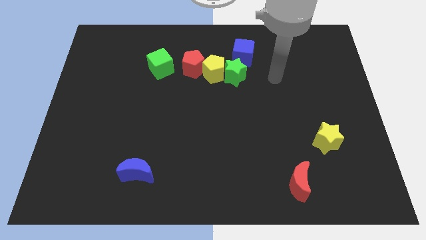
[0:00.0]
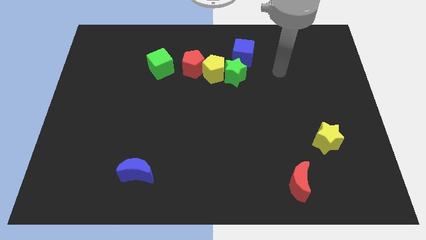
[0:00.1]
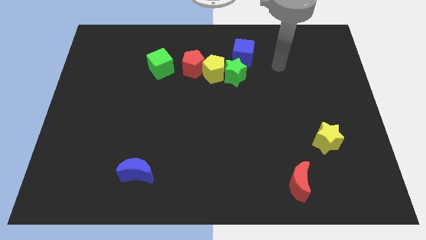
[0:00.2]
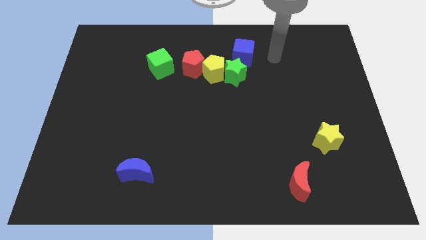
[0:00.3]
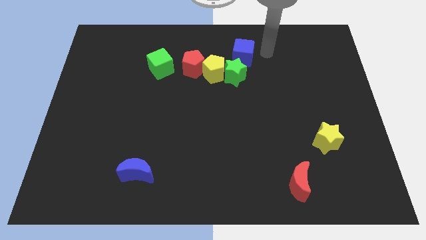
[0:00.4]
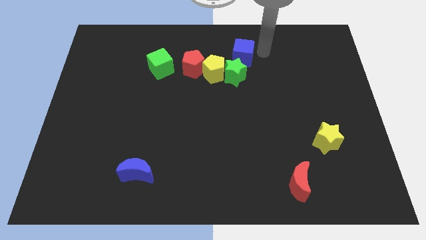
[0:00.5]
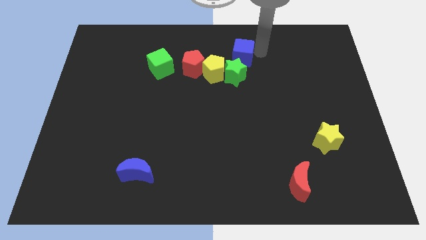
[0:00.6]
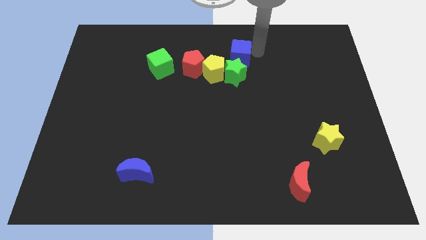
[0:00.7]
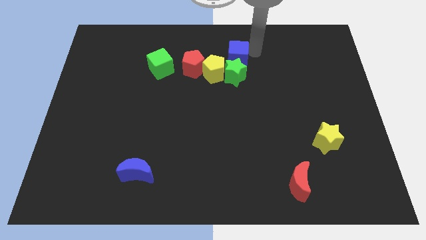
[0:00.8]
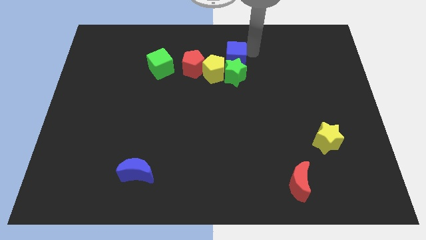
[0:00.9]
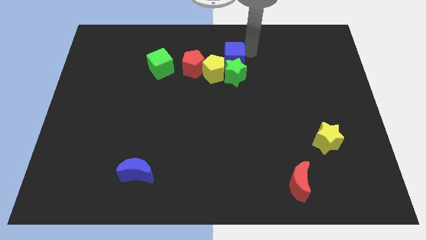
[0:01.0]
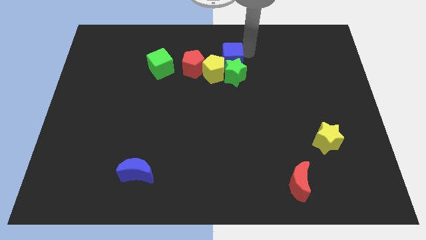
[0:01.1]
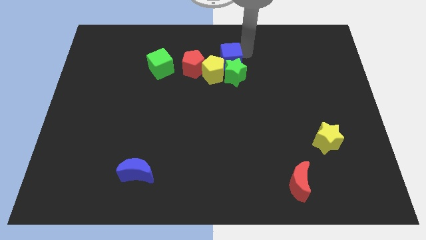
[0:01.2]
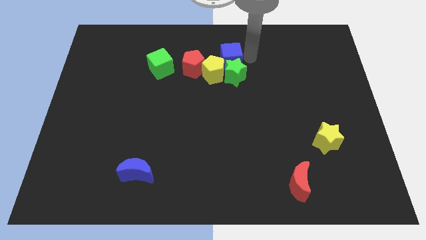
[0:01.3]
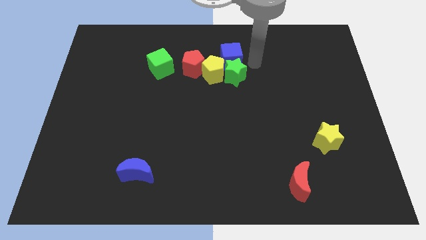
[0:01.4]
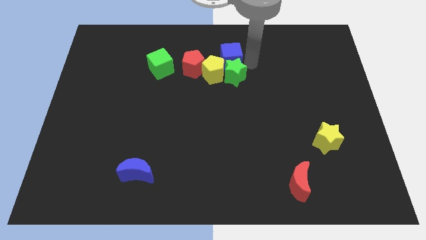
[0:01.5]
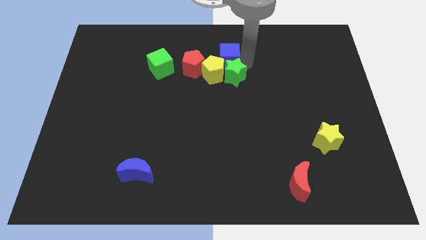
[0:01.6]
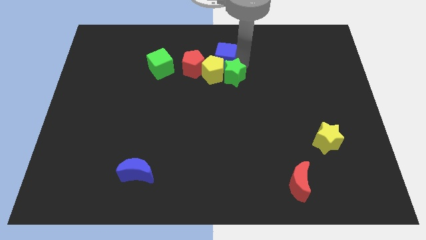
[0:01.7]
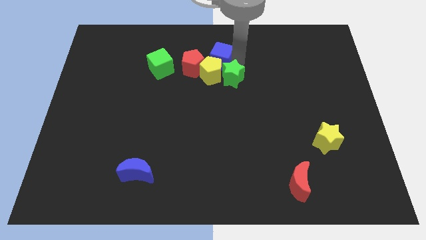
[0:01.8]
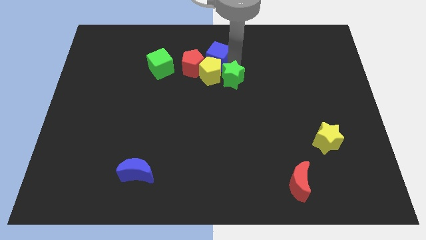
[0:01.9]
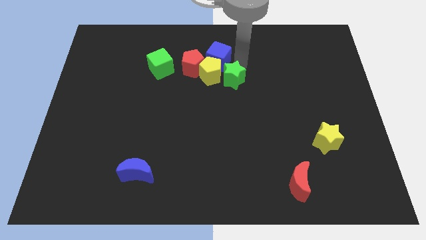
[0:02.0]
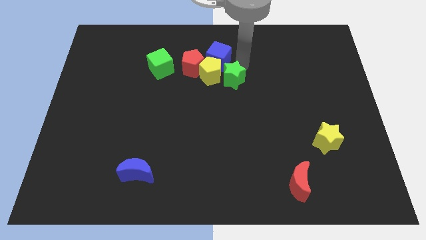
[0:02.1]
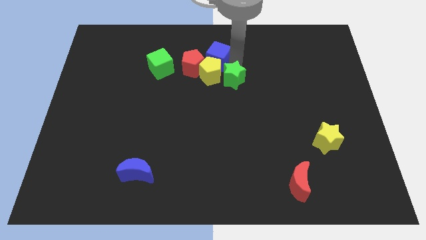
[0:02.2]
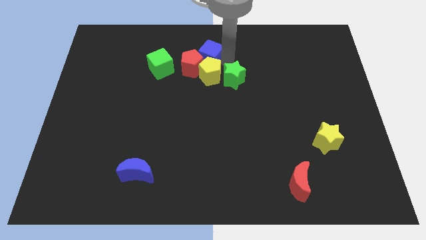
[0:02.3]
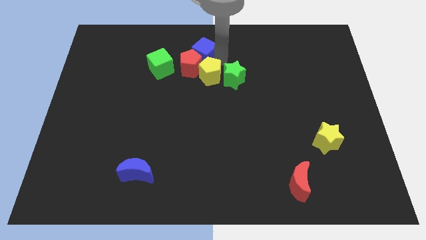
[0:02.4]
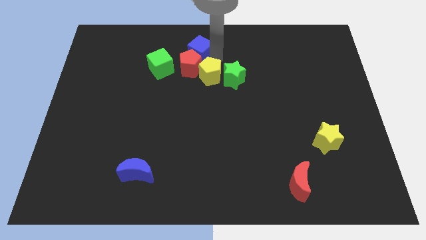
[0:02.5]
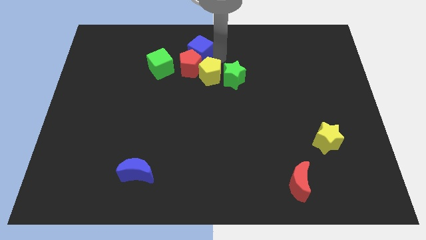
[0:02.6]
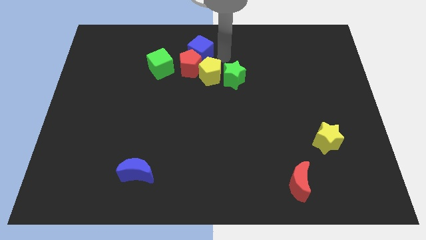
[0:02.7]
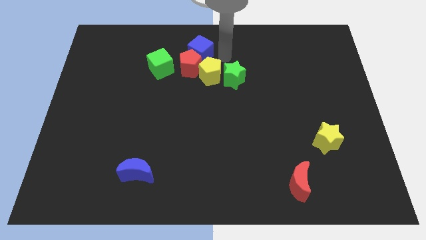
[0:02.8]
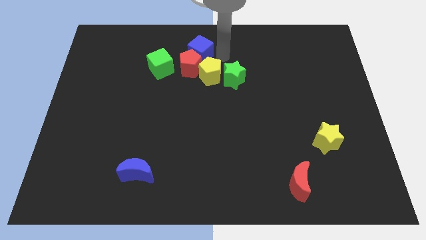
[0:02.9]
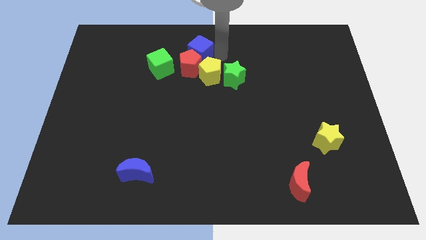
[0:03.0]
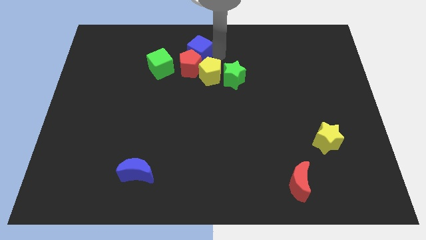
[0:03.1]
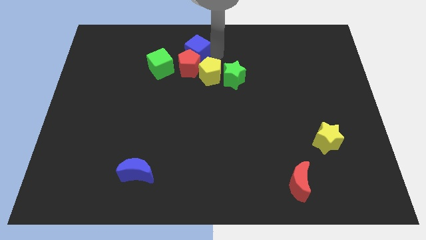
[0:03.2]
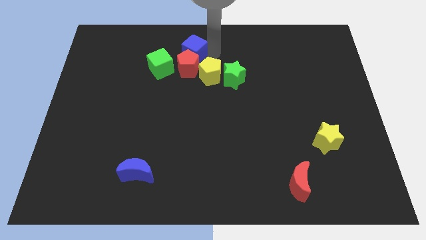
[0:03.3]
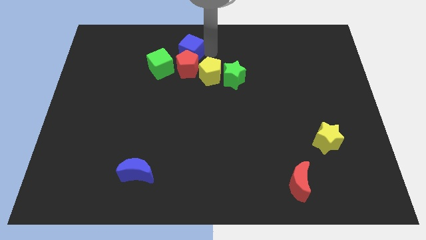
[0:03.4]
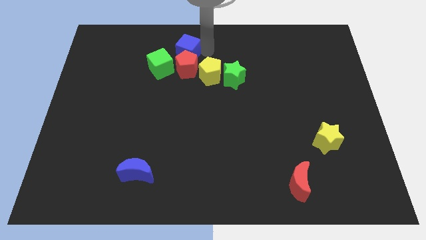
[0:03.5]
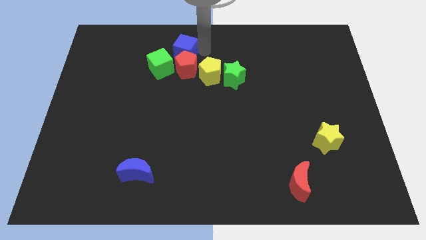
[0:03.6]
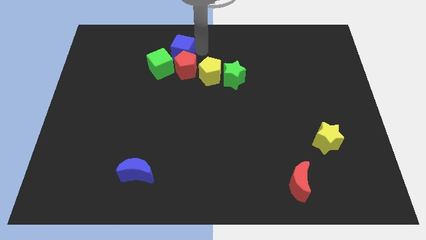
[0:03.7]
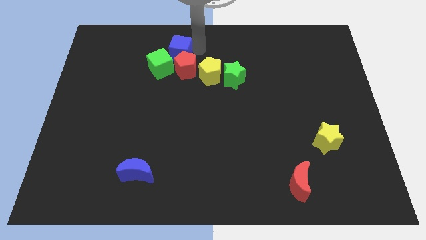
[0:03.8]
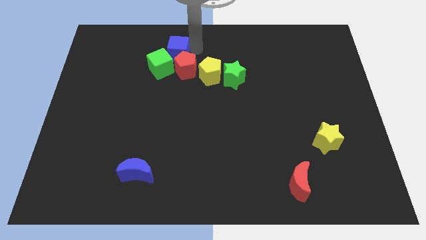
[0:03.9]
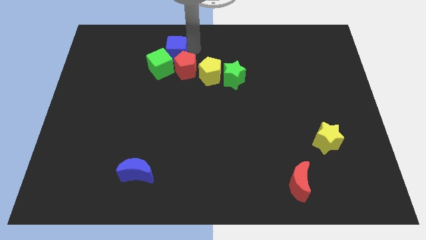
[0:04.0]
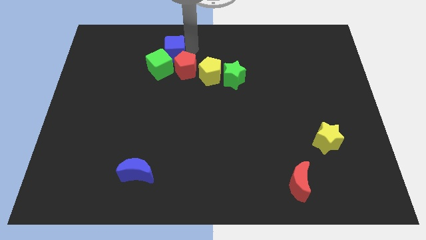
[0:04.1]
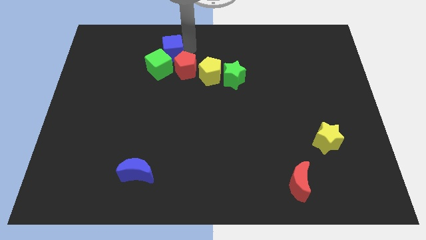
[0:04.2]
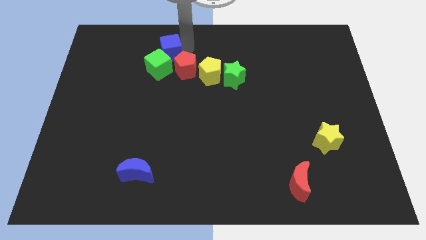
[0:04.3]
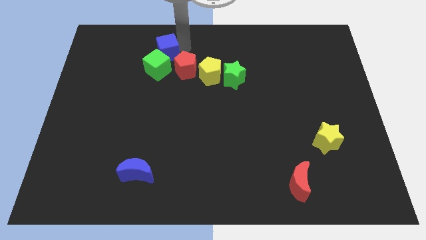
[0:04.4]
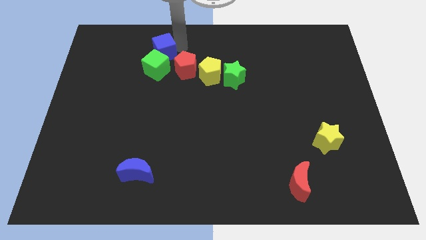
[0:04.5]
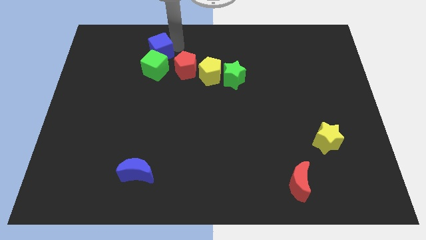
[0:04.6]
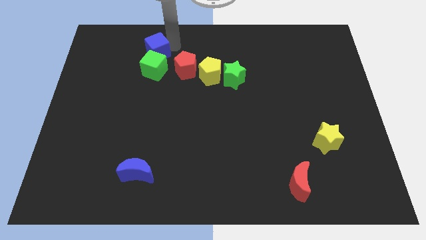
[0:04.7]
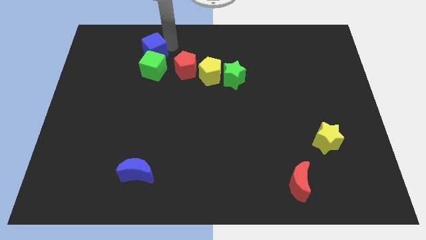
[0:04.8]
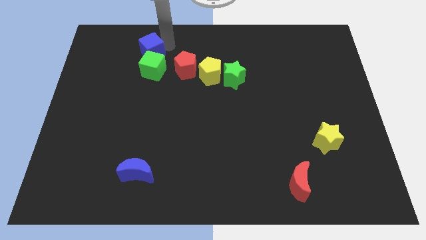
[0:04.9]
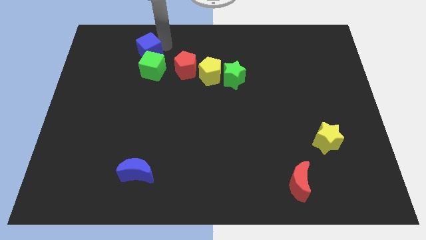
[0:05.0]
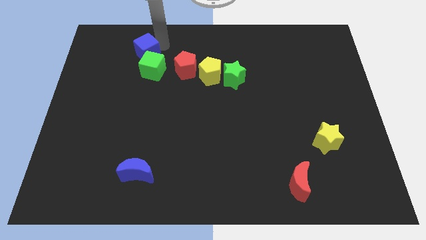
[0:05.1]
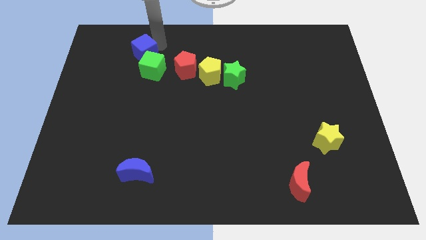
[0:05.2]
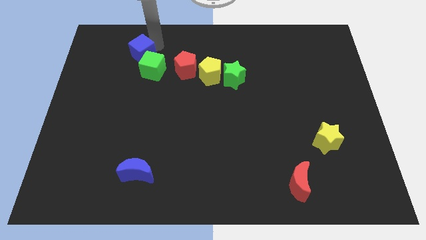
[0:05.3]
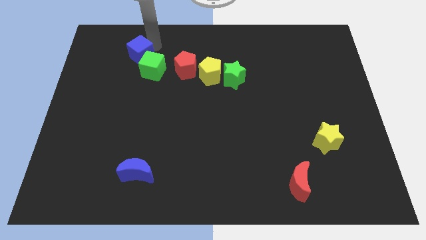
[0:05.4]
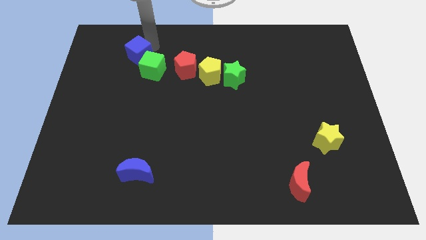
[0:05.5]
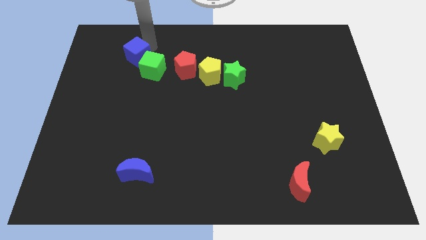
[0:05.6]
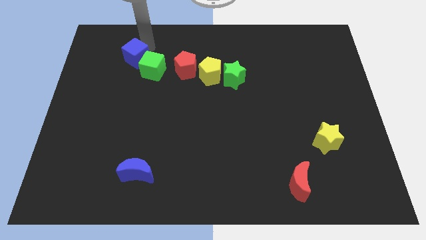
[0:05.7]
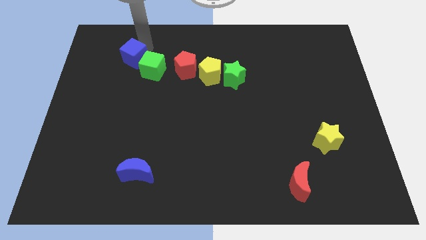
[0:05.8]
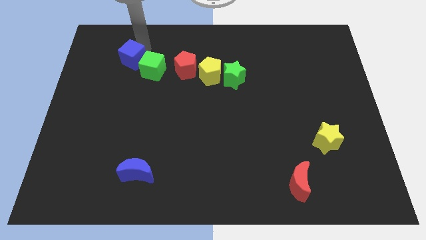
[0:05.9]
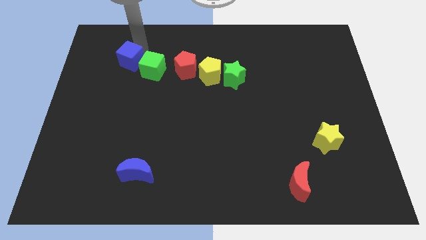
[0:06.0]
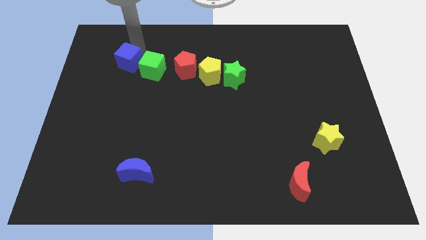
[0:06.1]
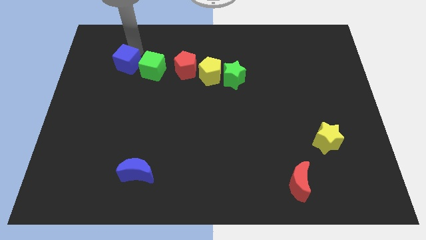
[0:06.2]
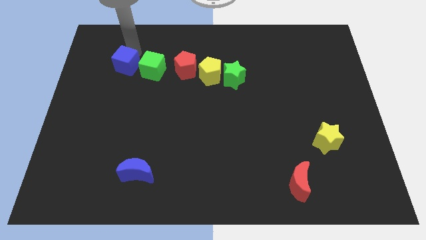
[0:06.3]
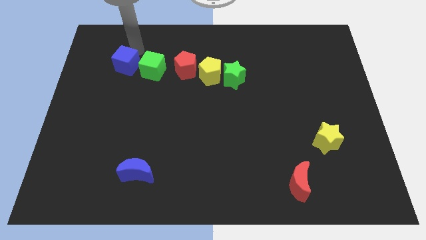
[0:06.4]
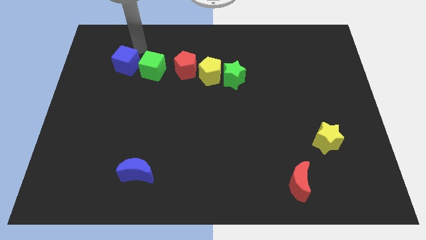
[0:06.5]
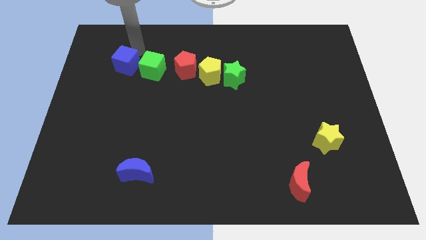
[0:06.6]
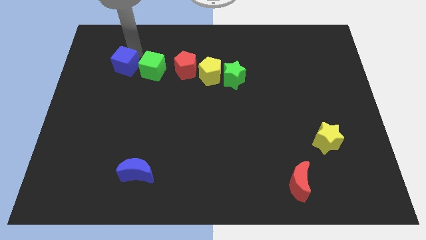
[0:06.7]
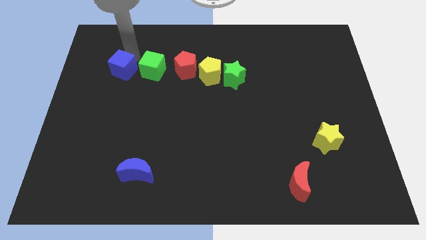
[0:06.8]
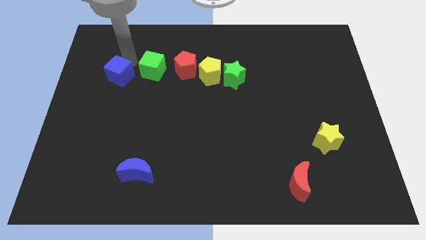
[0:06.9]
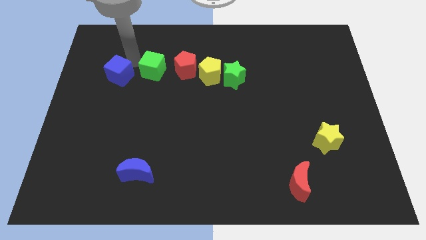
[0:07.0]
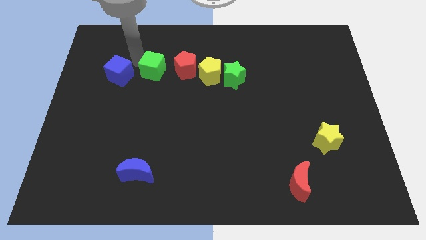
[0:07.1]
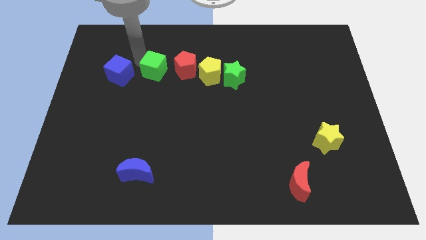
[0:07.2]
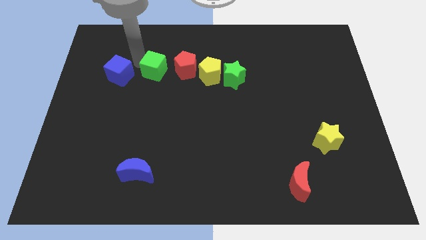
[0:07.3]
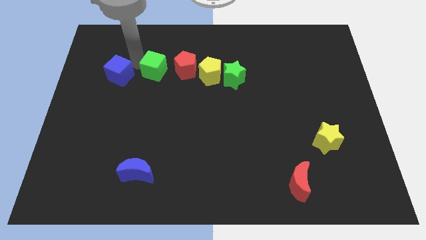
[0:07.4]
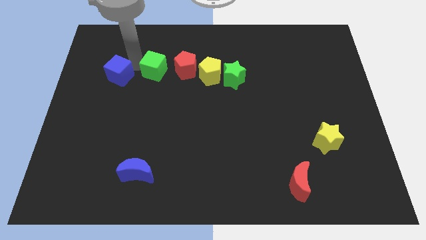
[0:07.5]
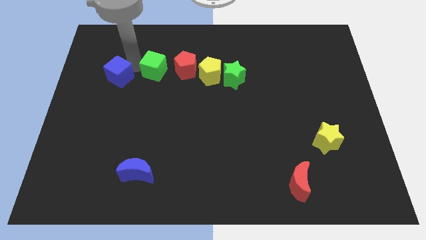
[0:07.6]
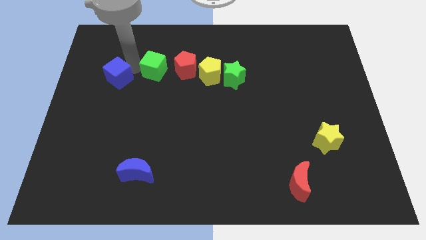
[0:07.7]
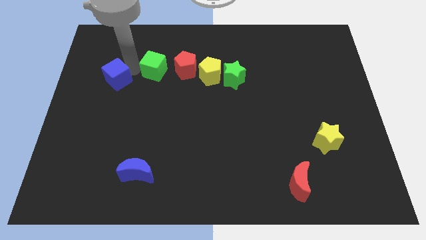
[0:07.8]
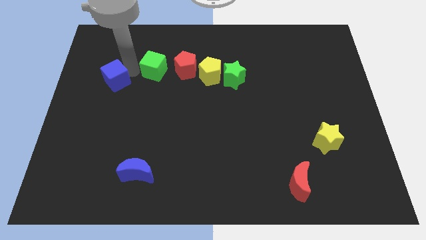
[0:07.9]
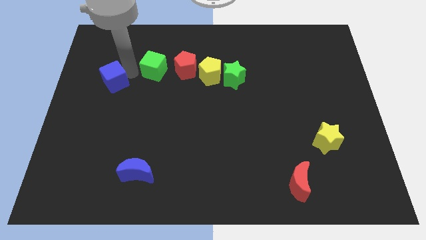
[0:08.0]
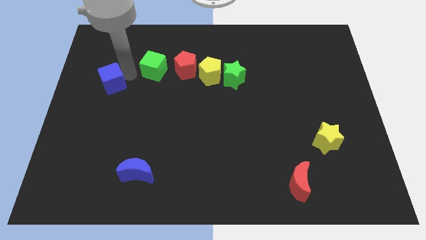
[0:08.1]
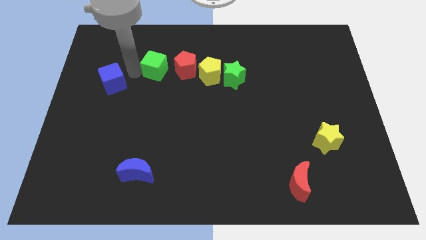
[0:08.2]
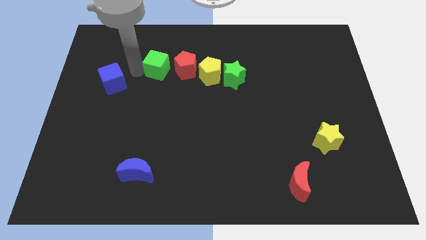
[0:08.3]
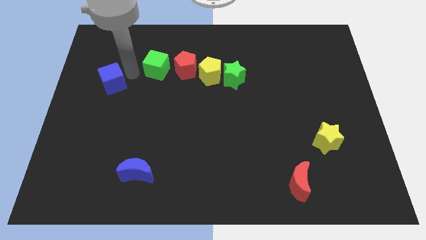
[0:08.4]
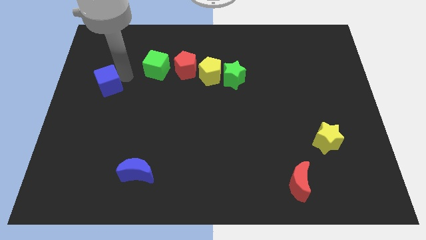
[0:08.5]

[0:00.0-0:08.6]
move the blue cube to the left side of the board
